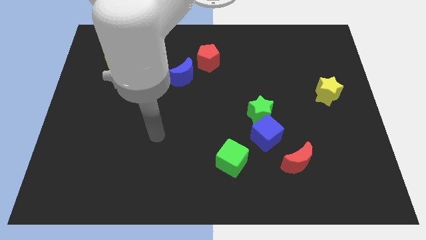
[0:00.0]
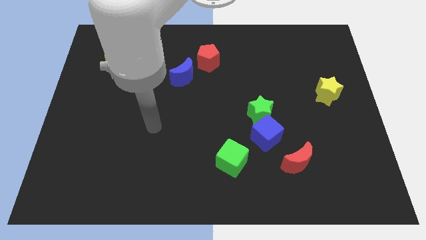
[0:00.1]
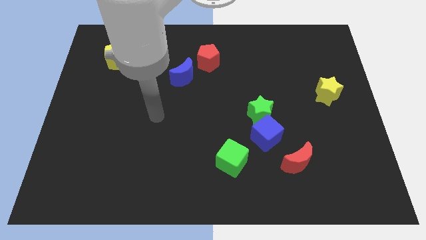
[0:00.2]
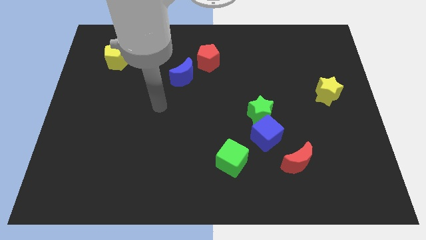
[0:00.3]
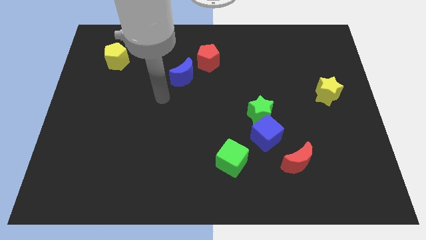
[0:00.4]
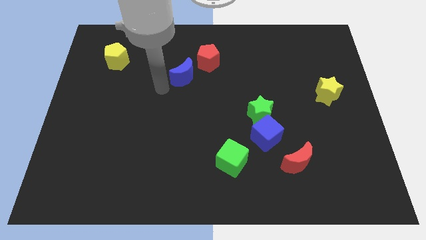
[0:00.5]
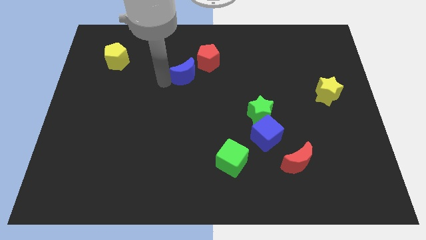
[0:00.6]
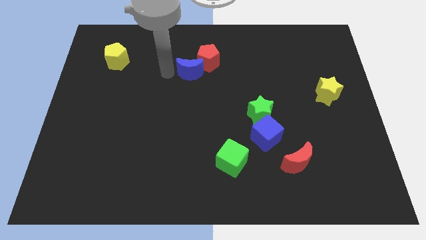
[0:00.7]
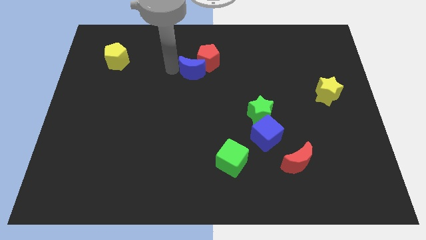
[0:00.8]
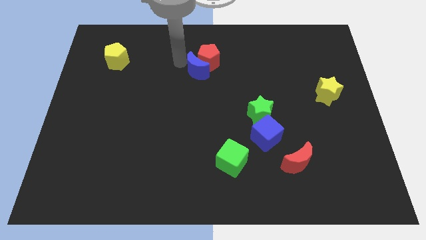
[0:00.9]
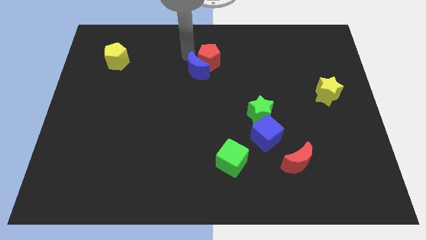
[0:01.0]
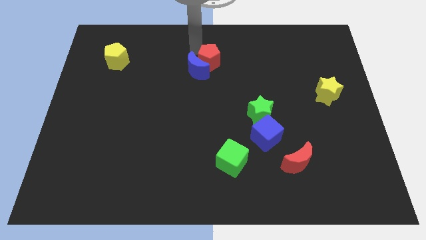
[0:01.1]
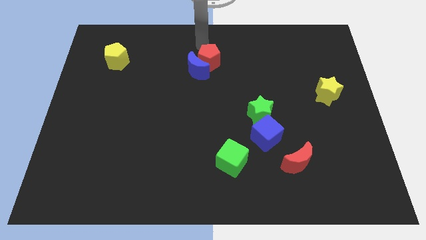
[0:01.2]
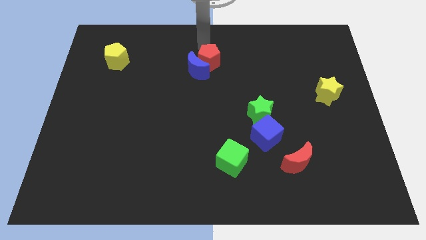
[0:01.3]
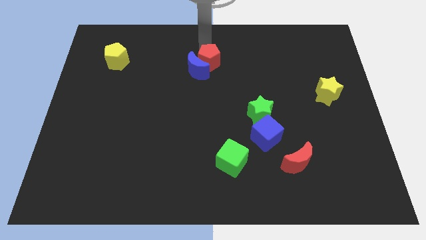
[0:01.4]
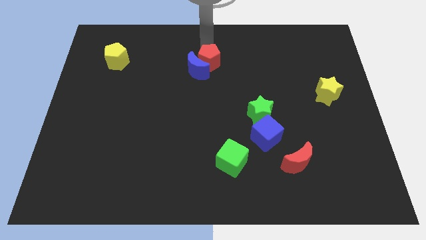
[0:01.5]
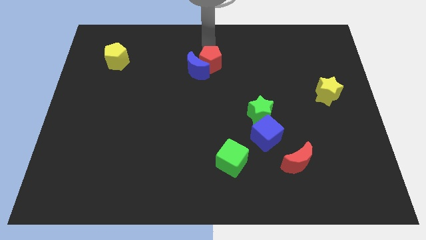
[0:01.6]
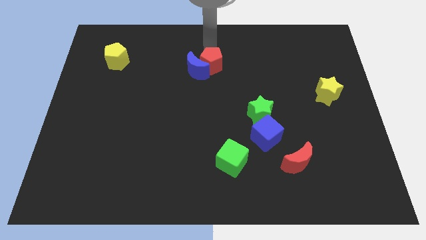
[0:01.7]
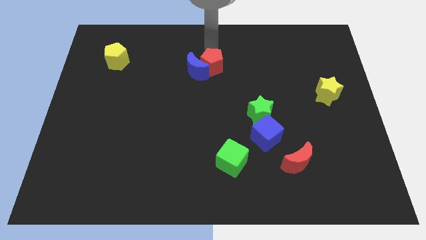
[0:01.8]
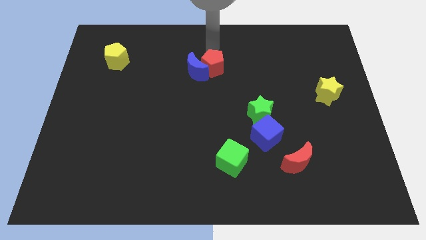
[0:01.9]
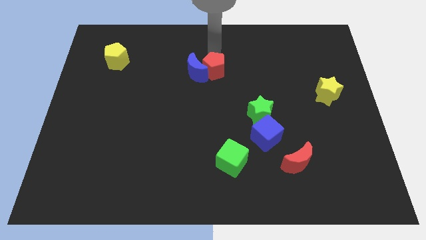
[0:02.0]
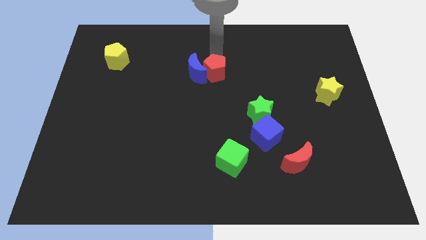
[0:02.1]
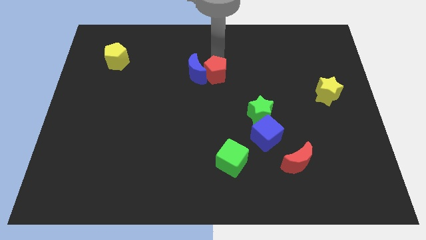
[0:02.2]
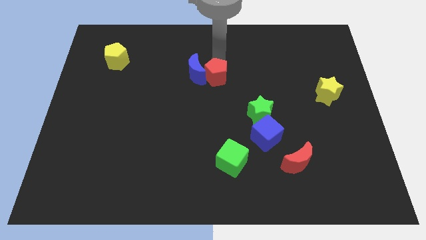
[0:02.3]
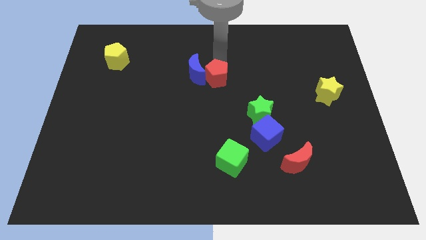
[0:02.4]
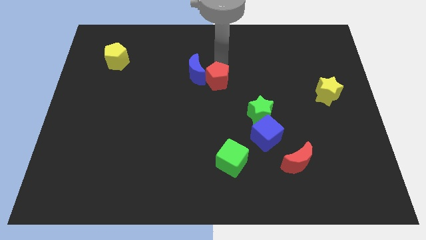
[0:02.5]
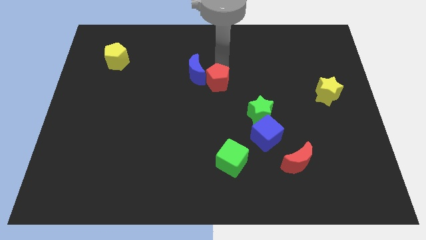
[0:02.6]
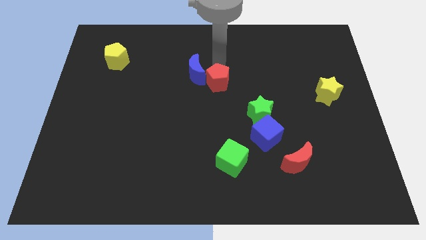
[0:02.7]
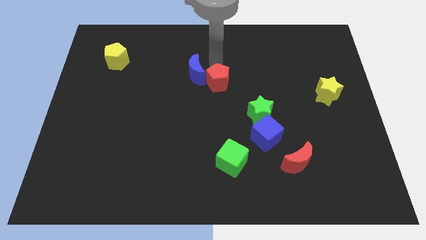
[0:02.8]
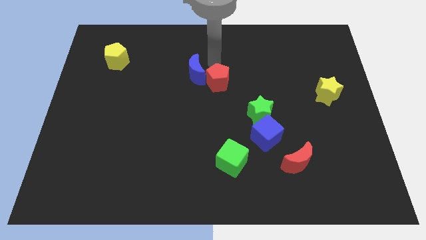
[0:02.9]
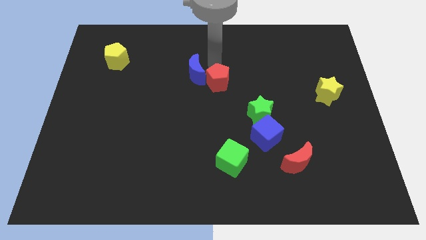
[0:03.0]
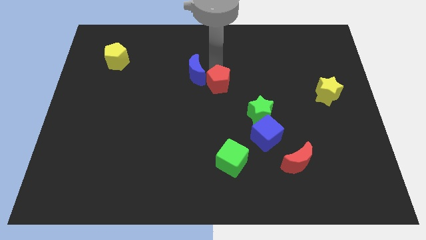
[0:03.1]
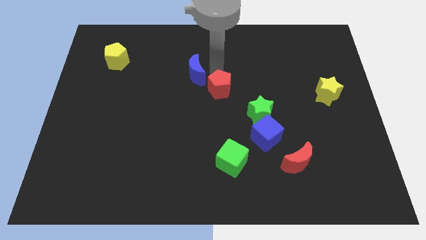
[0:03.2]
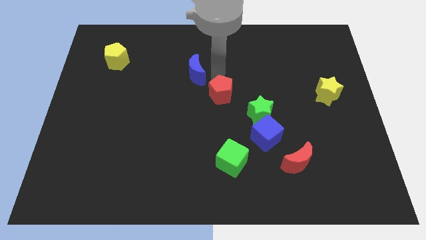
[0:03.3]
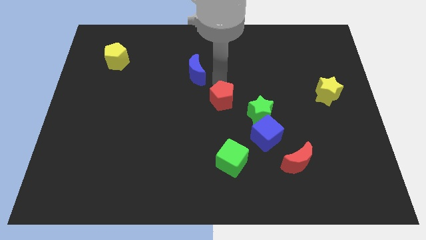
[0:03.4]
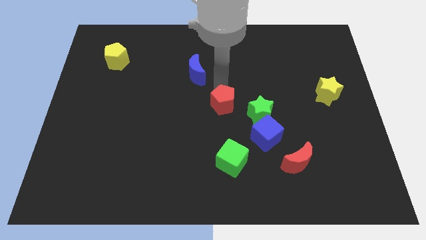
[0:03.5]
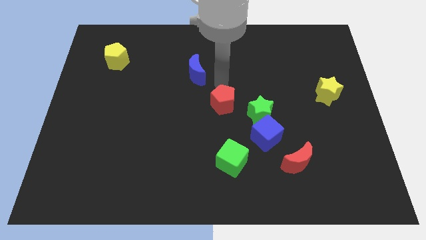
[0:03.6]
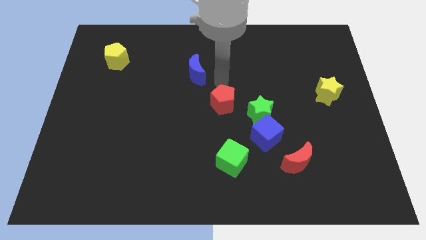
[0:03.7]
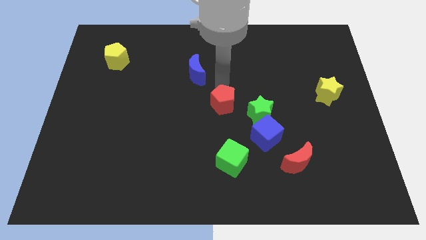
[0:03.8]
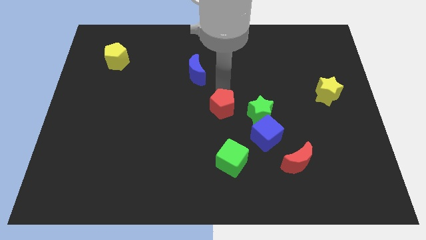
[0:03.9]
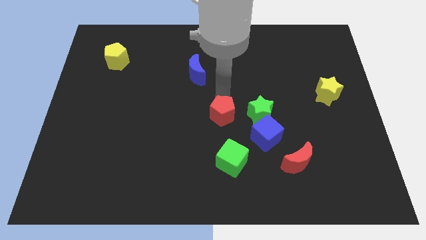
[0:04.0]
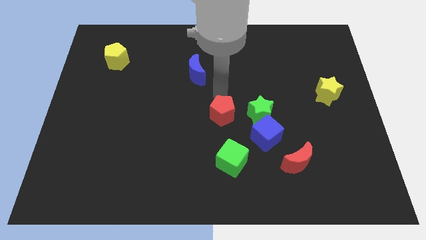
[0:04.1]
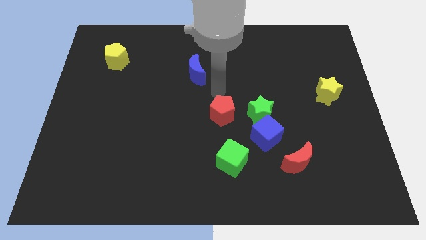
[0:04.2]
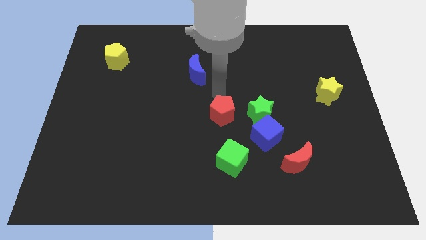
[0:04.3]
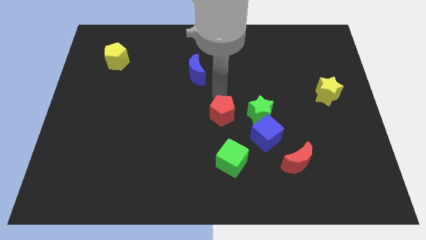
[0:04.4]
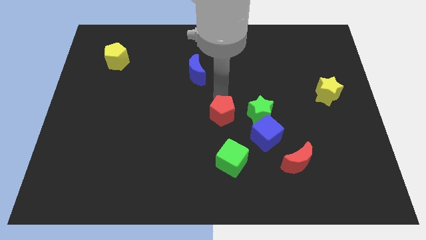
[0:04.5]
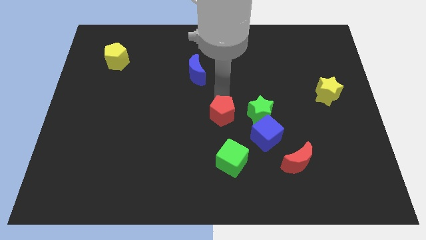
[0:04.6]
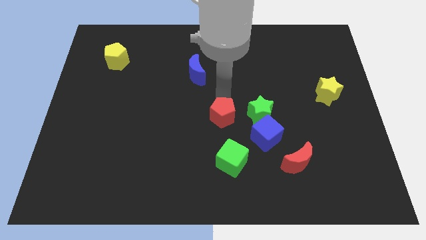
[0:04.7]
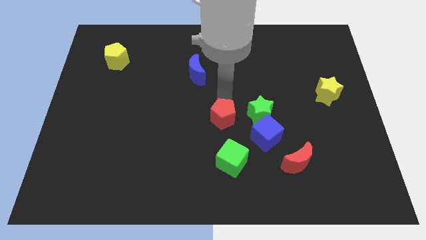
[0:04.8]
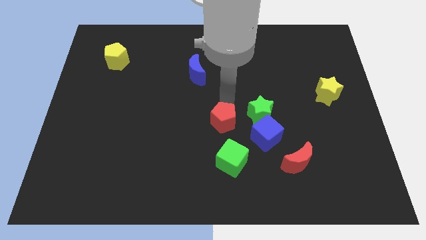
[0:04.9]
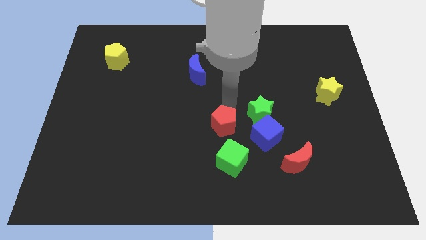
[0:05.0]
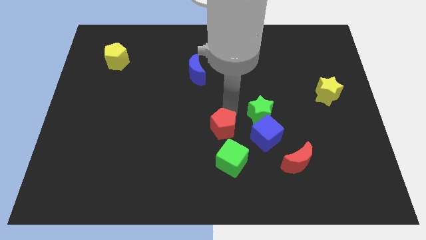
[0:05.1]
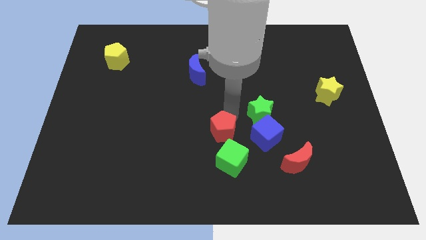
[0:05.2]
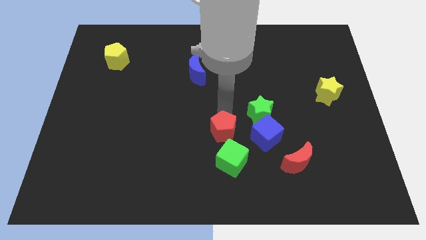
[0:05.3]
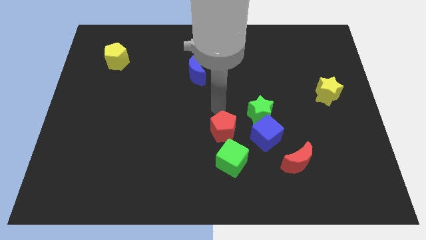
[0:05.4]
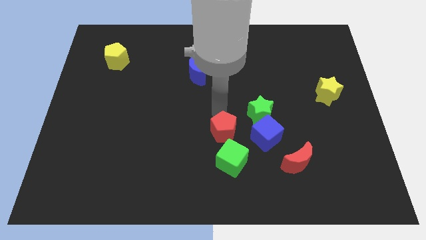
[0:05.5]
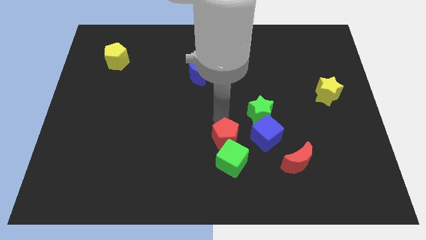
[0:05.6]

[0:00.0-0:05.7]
push the red pentagon next to the green cube

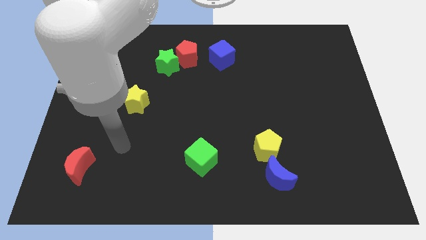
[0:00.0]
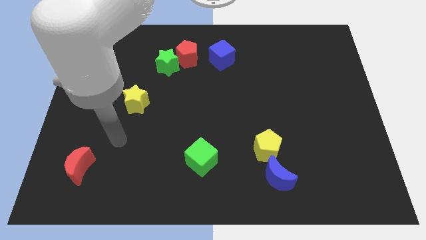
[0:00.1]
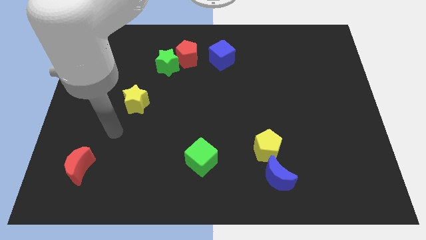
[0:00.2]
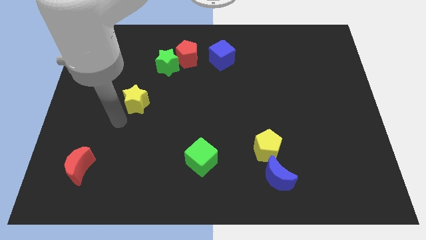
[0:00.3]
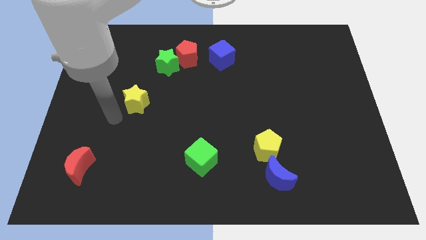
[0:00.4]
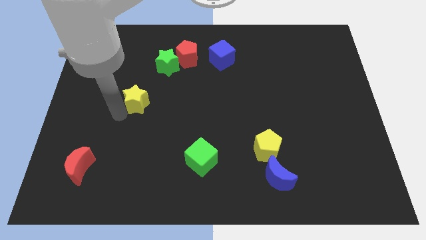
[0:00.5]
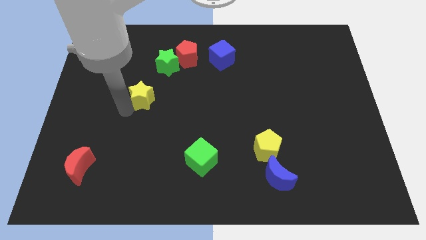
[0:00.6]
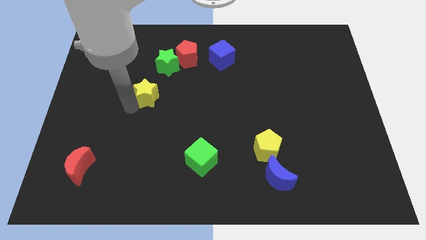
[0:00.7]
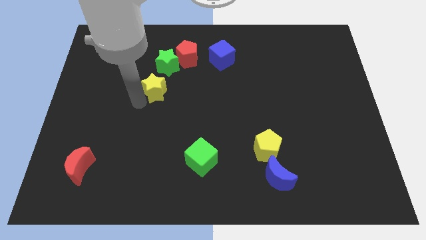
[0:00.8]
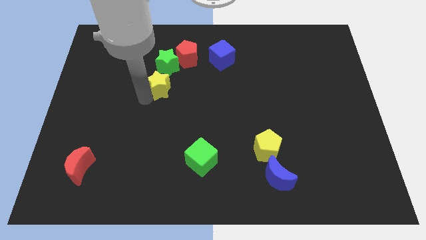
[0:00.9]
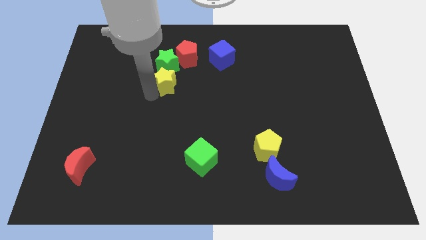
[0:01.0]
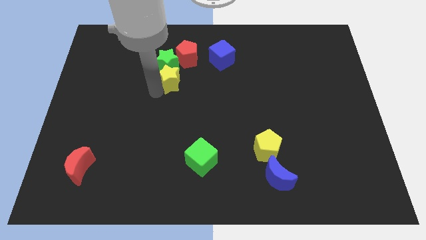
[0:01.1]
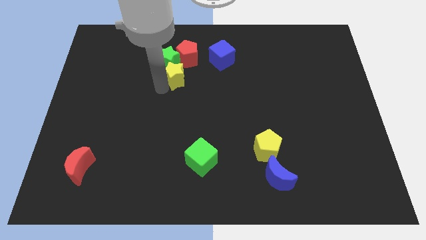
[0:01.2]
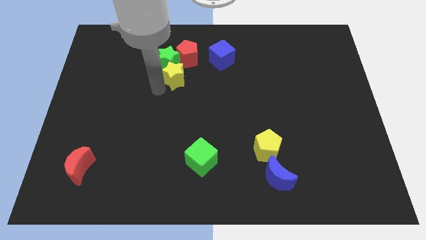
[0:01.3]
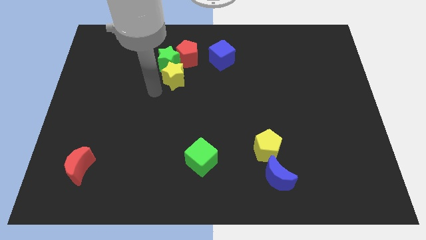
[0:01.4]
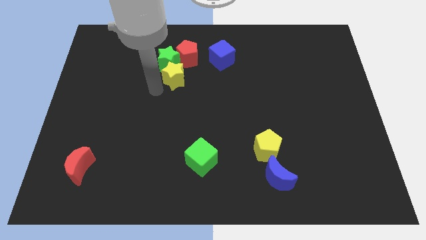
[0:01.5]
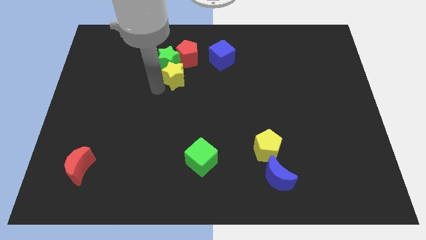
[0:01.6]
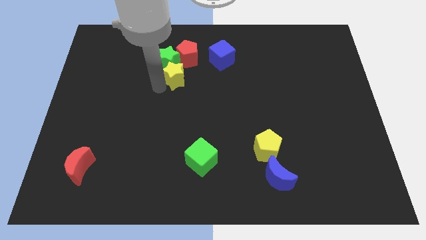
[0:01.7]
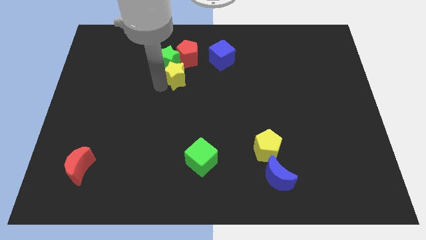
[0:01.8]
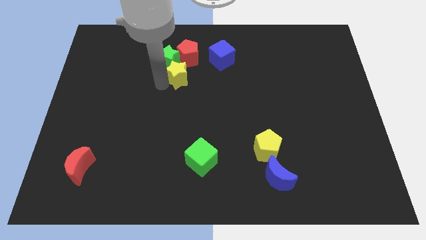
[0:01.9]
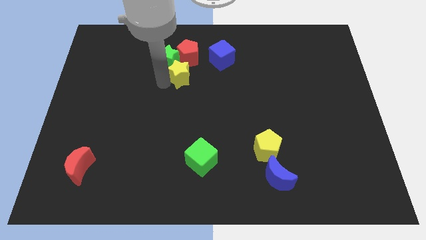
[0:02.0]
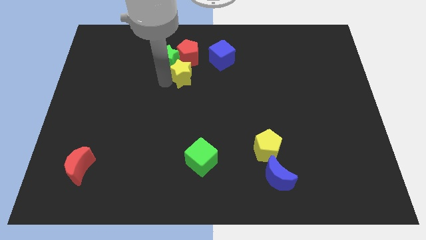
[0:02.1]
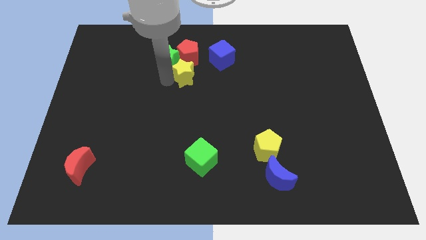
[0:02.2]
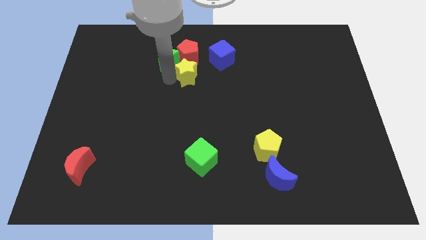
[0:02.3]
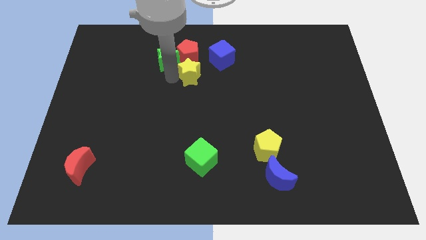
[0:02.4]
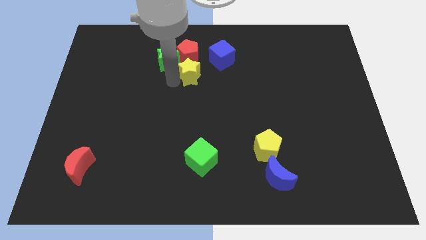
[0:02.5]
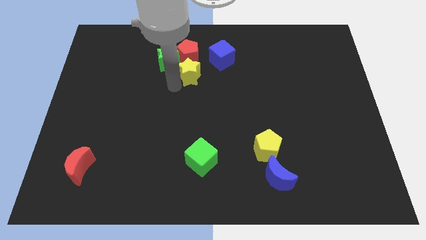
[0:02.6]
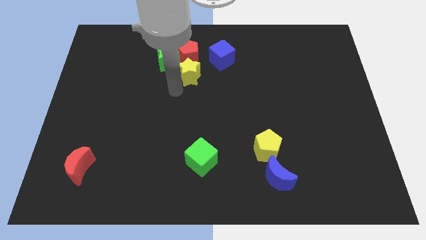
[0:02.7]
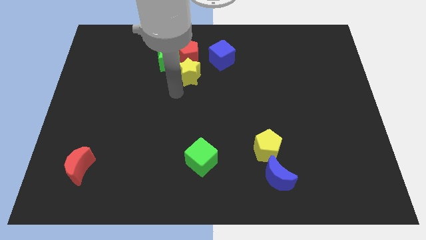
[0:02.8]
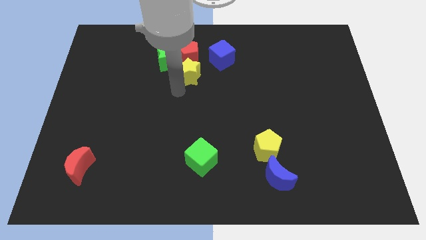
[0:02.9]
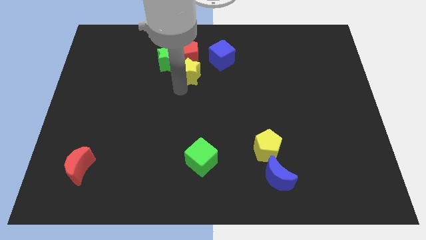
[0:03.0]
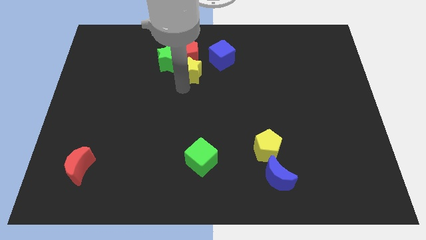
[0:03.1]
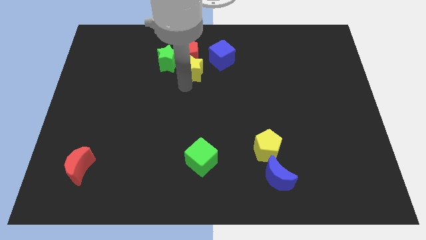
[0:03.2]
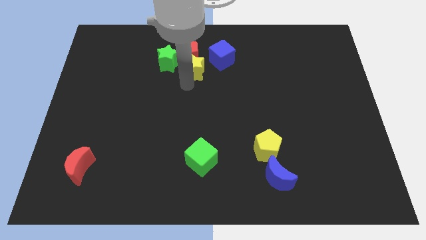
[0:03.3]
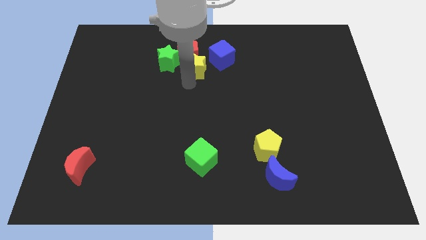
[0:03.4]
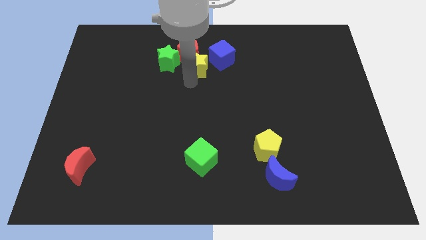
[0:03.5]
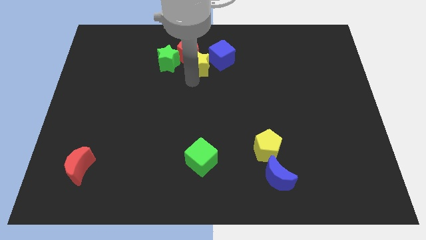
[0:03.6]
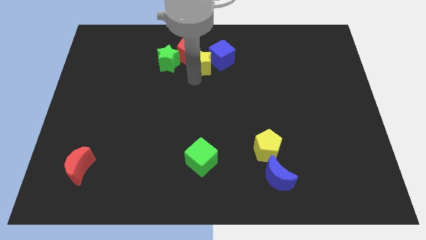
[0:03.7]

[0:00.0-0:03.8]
put the yellow star next to the blue cube
